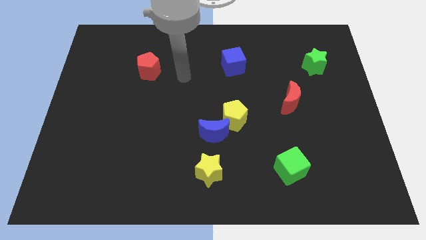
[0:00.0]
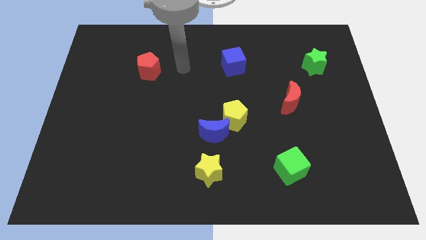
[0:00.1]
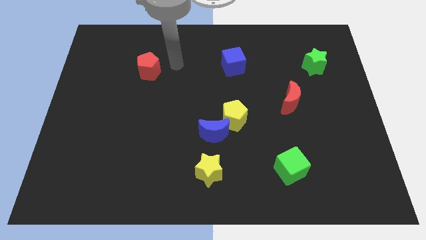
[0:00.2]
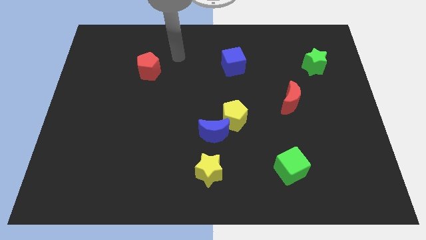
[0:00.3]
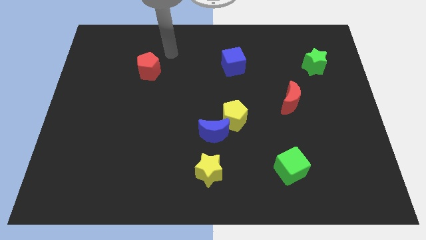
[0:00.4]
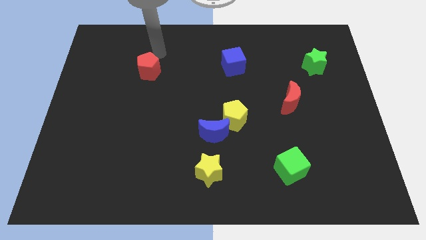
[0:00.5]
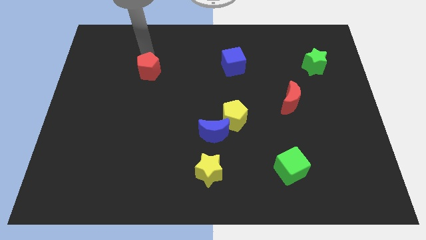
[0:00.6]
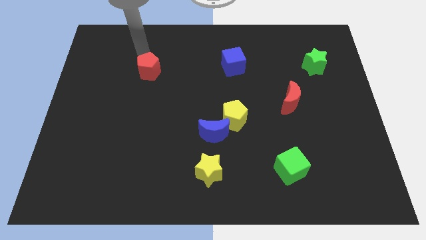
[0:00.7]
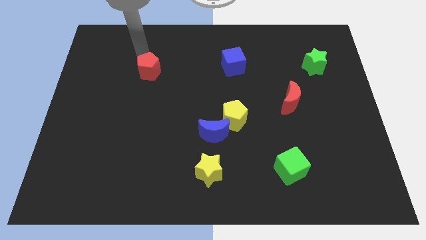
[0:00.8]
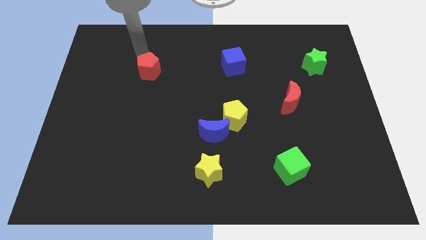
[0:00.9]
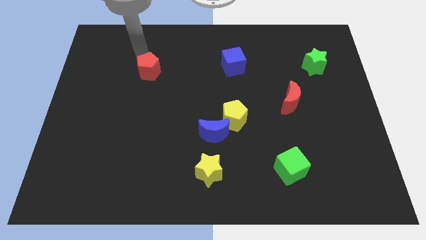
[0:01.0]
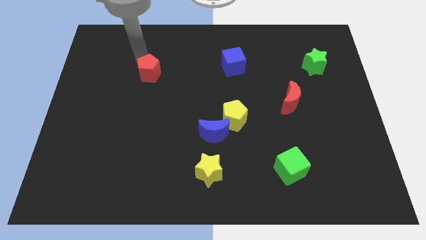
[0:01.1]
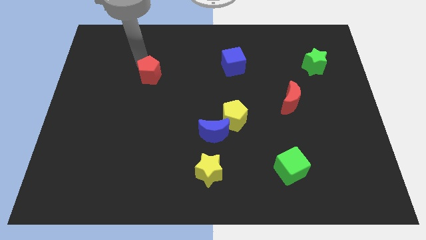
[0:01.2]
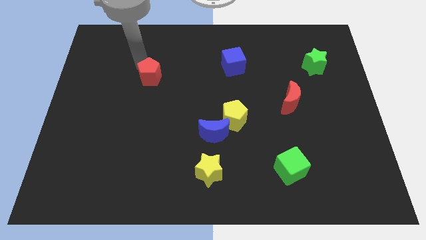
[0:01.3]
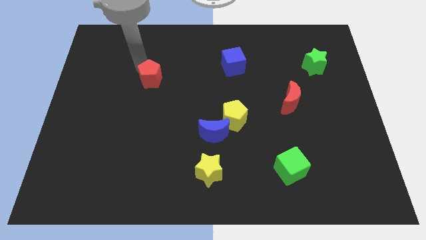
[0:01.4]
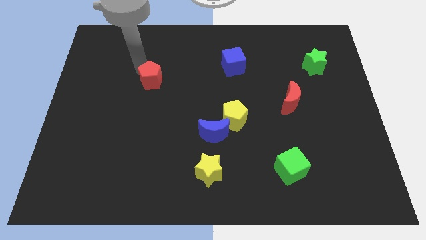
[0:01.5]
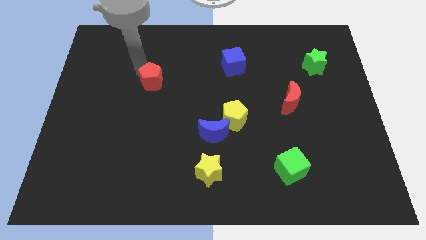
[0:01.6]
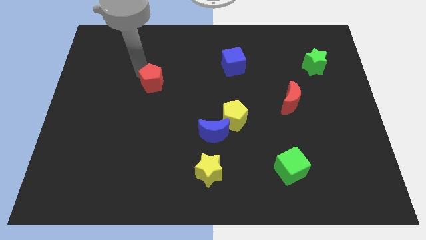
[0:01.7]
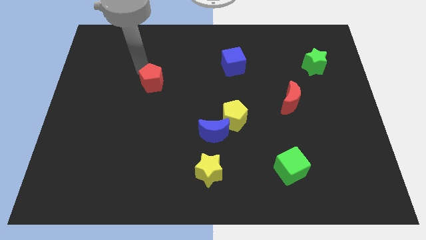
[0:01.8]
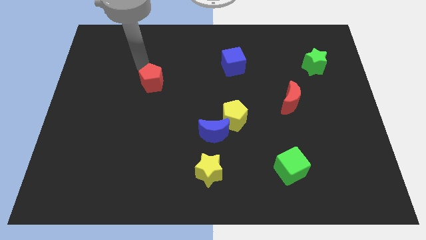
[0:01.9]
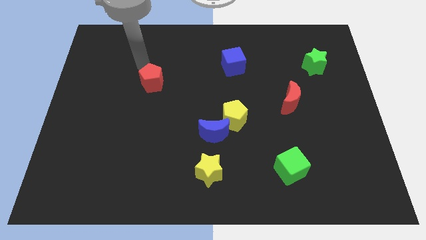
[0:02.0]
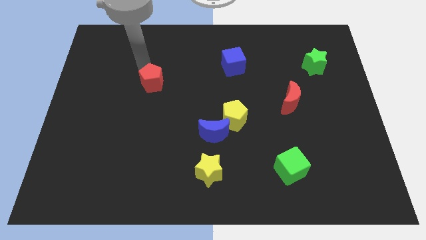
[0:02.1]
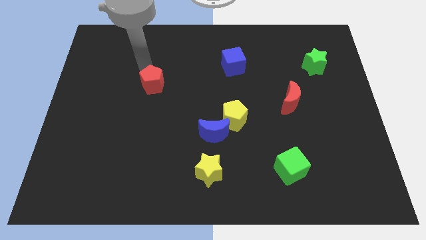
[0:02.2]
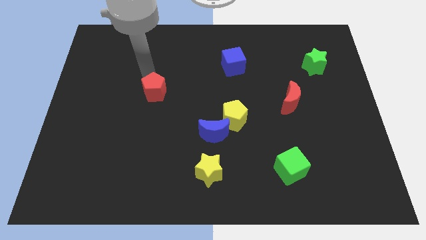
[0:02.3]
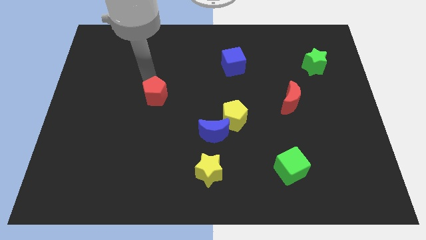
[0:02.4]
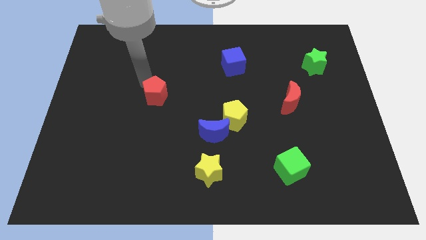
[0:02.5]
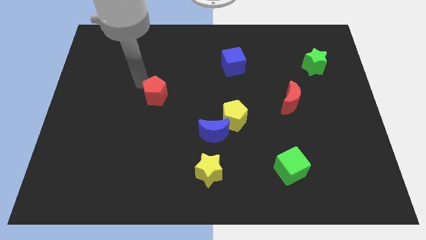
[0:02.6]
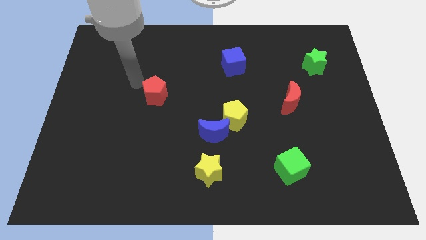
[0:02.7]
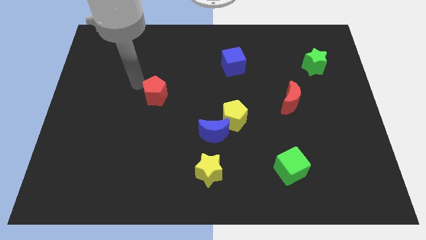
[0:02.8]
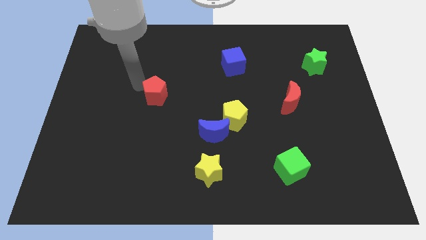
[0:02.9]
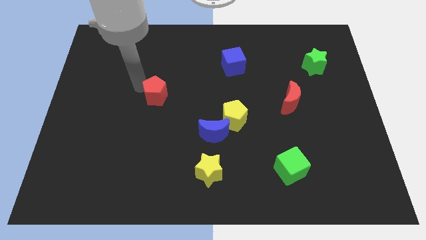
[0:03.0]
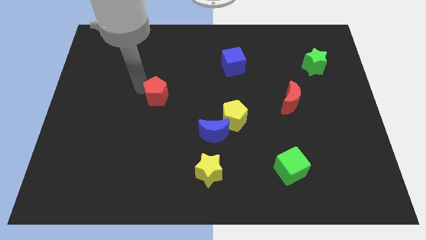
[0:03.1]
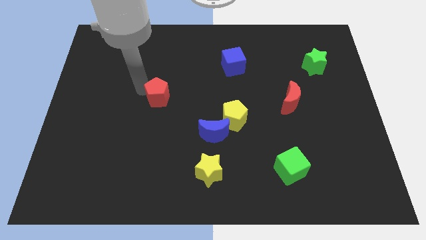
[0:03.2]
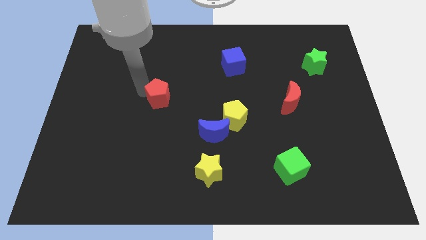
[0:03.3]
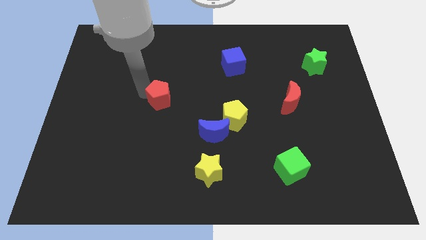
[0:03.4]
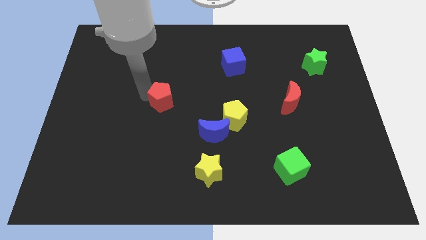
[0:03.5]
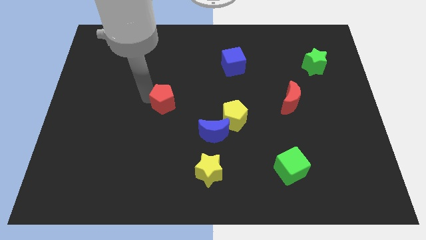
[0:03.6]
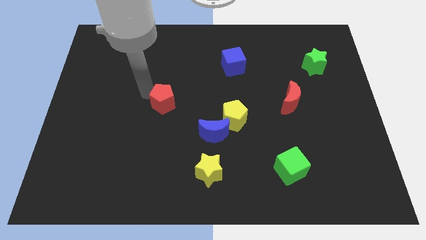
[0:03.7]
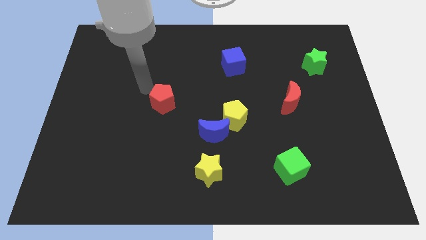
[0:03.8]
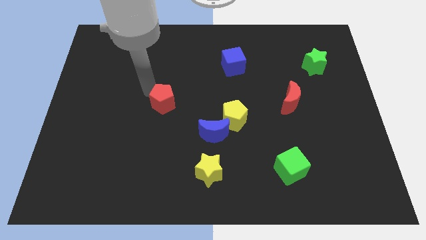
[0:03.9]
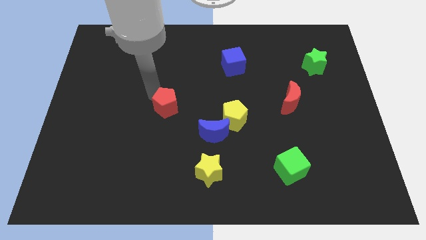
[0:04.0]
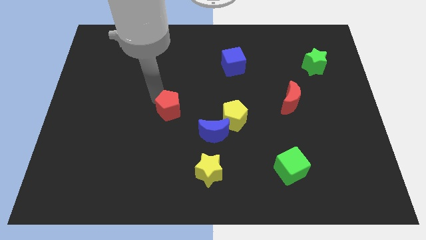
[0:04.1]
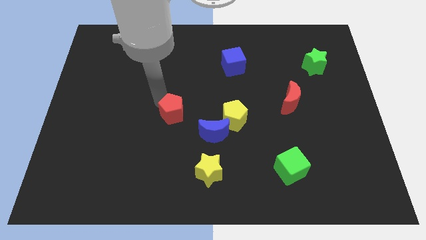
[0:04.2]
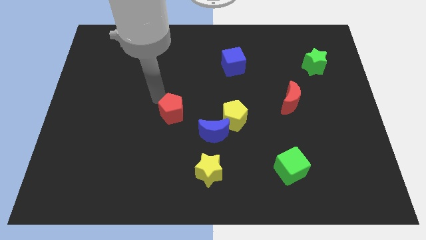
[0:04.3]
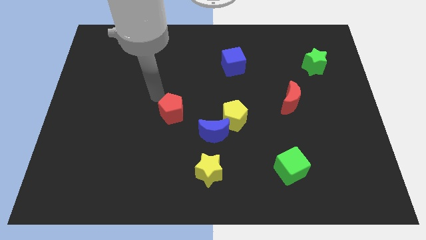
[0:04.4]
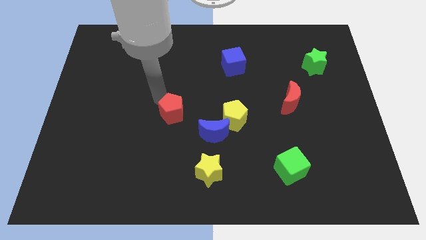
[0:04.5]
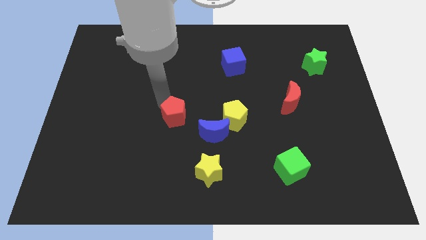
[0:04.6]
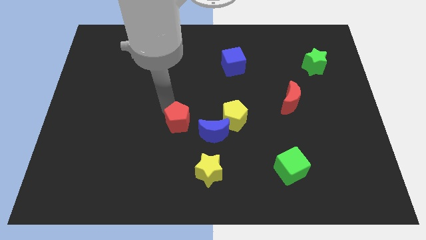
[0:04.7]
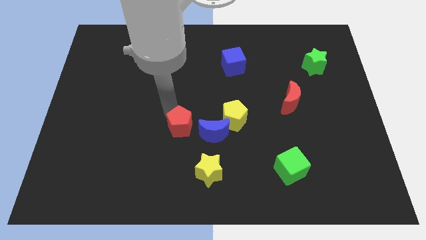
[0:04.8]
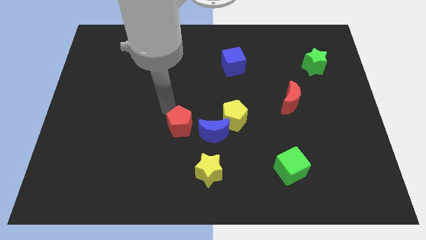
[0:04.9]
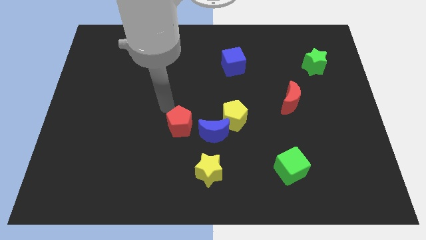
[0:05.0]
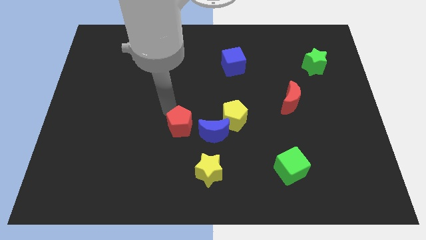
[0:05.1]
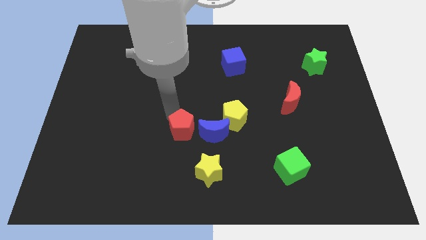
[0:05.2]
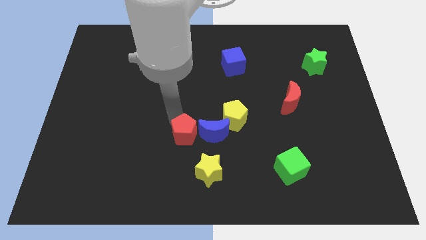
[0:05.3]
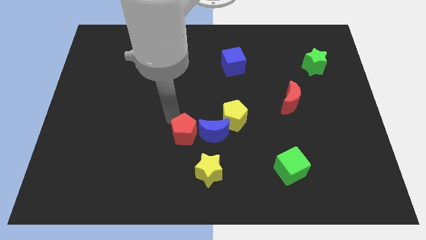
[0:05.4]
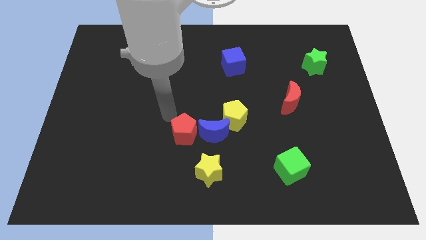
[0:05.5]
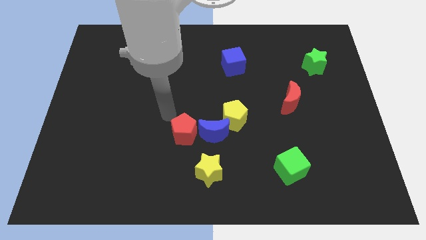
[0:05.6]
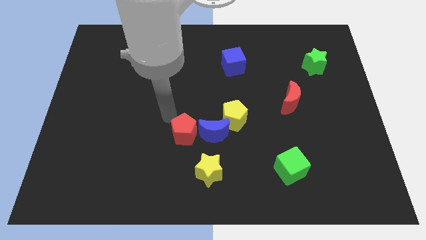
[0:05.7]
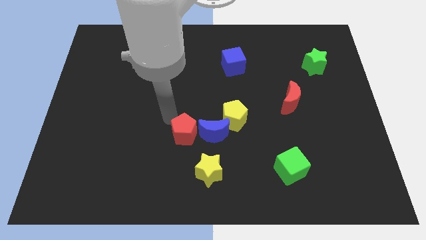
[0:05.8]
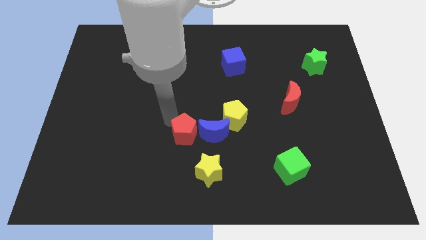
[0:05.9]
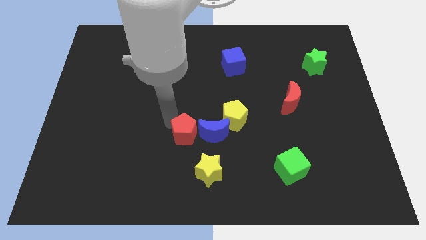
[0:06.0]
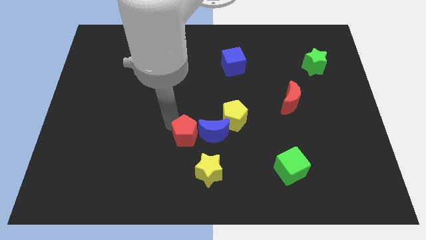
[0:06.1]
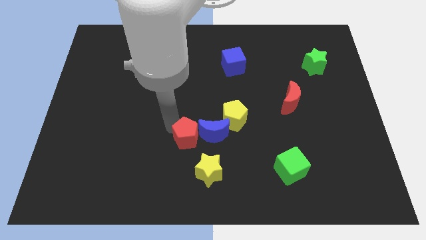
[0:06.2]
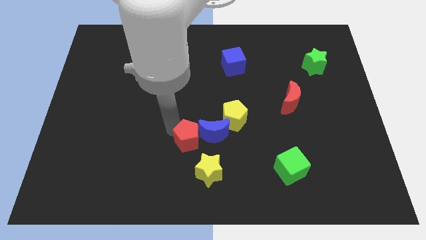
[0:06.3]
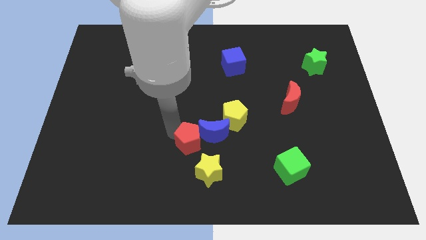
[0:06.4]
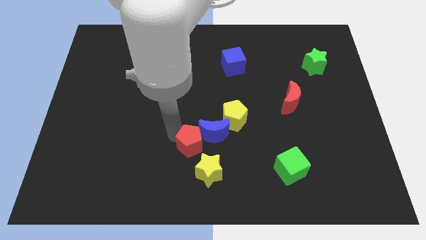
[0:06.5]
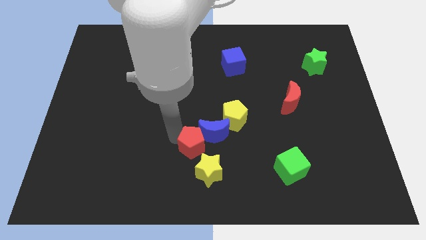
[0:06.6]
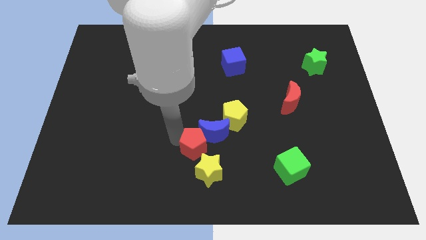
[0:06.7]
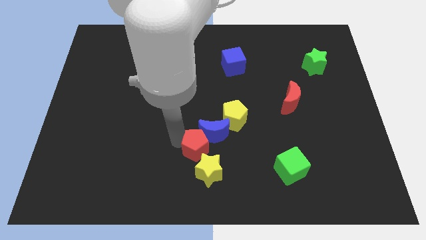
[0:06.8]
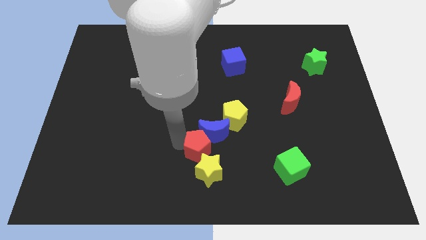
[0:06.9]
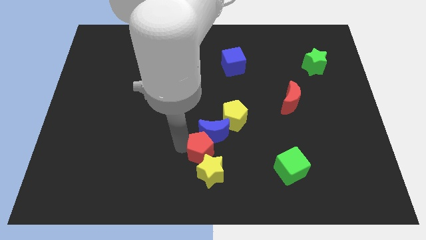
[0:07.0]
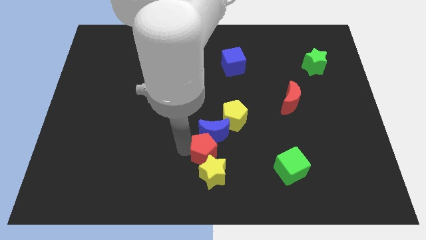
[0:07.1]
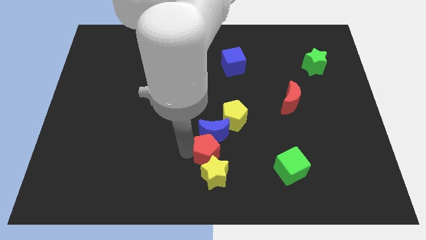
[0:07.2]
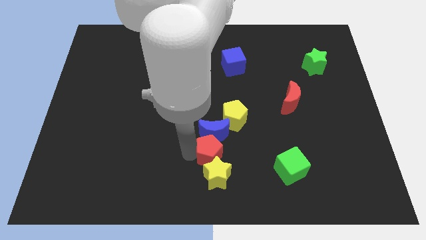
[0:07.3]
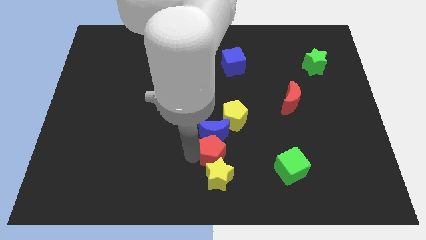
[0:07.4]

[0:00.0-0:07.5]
slide the red pentagon to the top right side of the yellow star
